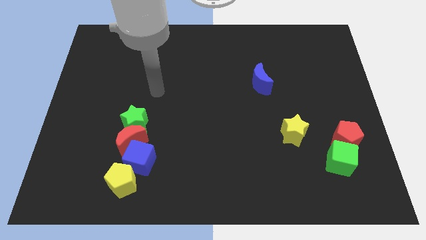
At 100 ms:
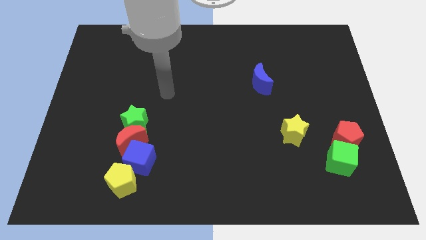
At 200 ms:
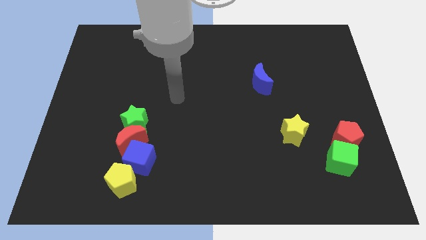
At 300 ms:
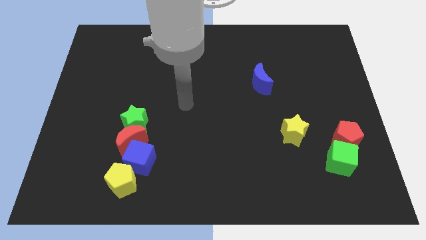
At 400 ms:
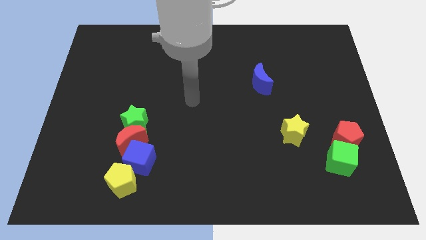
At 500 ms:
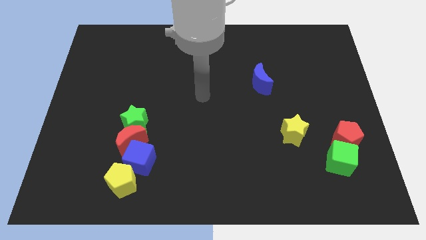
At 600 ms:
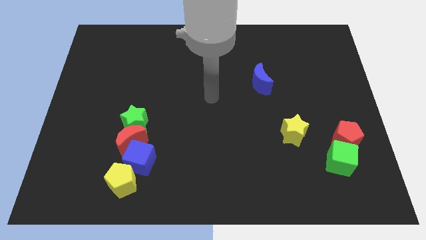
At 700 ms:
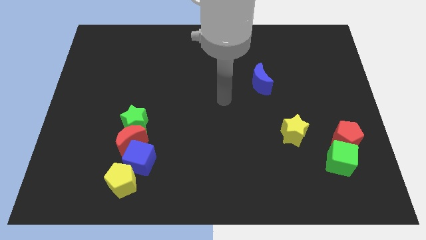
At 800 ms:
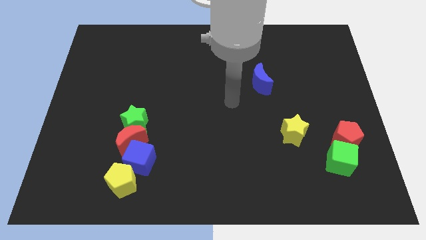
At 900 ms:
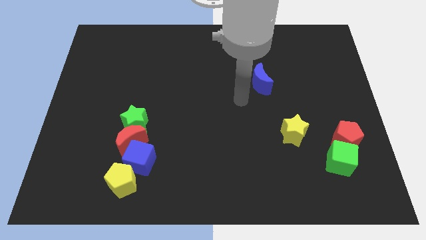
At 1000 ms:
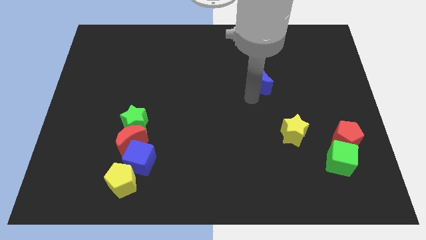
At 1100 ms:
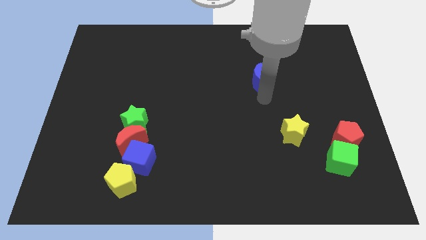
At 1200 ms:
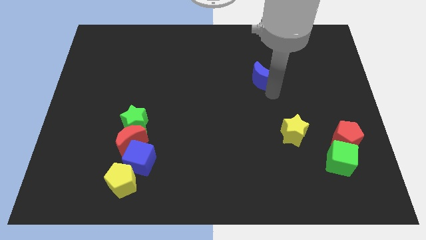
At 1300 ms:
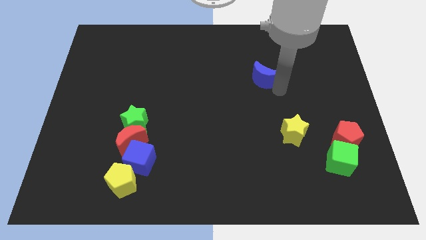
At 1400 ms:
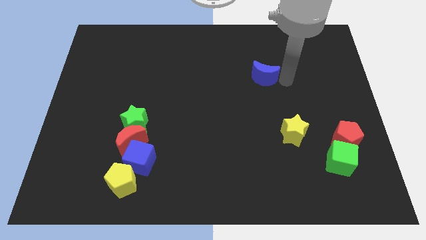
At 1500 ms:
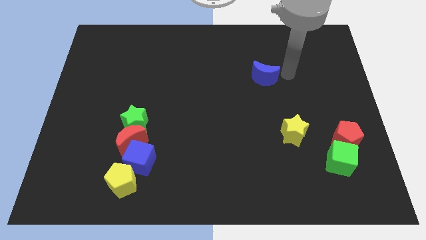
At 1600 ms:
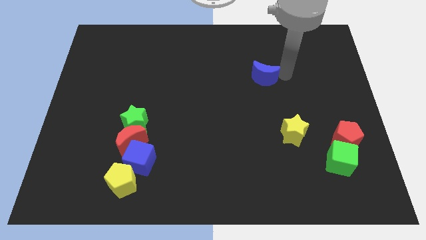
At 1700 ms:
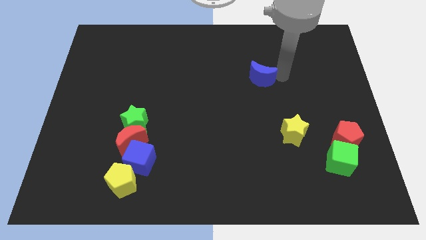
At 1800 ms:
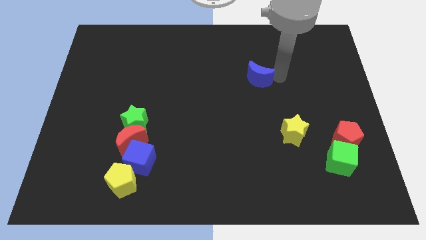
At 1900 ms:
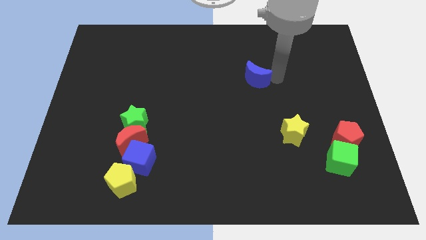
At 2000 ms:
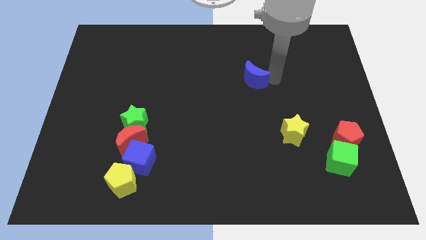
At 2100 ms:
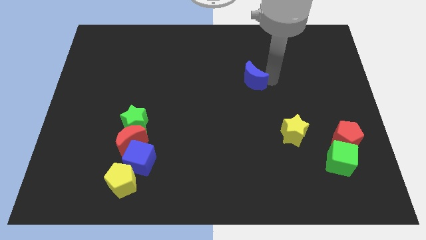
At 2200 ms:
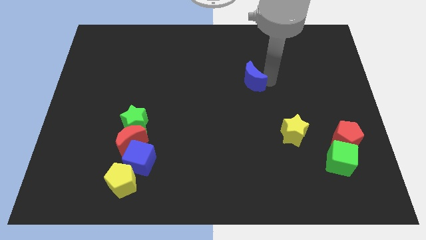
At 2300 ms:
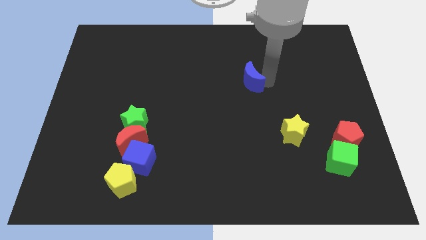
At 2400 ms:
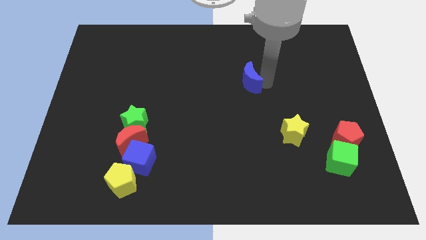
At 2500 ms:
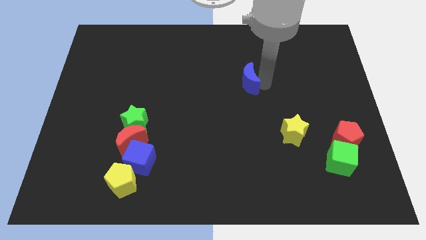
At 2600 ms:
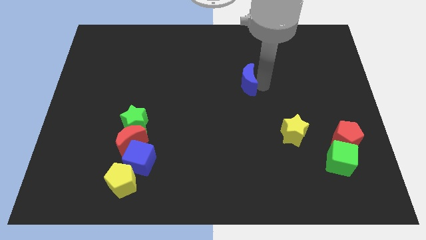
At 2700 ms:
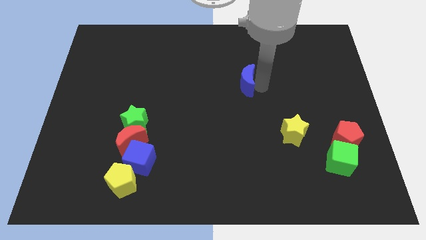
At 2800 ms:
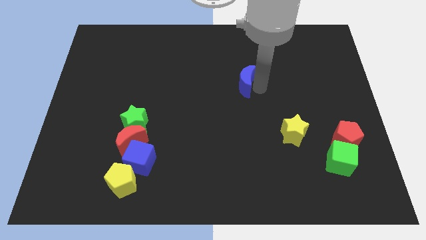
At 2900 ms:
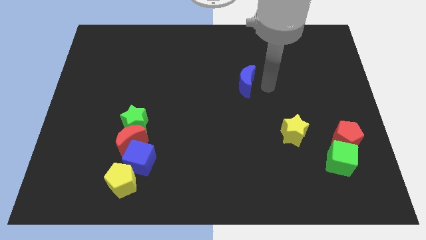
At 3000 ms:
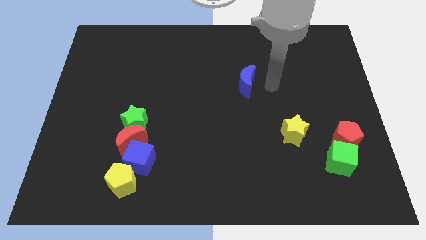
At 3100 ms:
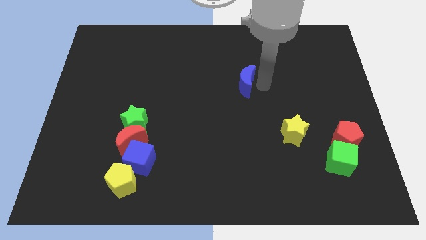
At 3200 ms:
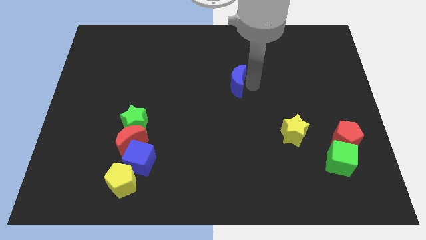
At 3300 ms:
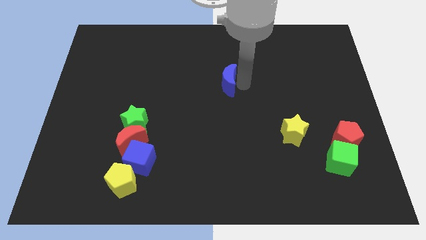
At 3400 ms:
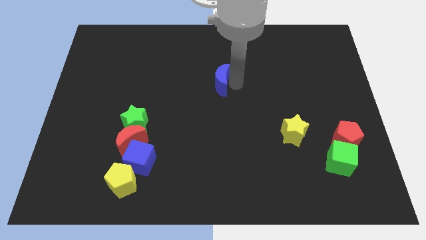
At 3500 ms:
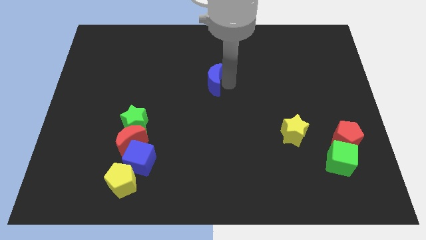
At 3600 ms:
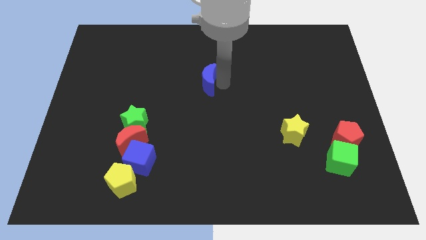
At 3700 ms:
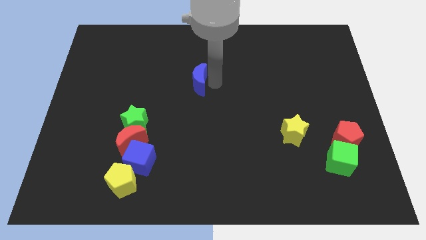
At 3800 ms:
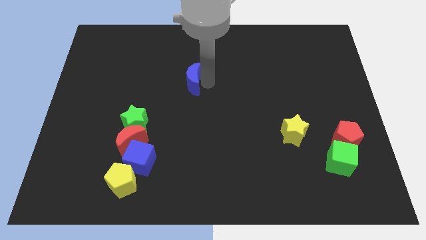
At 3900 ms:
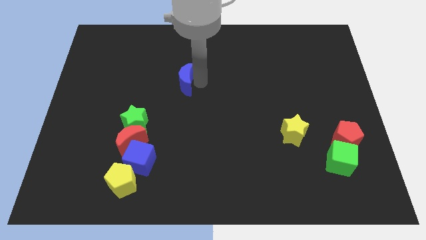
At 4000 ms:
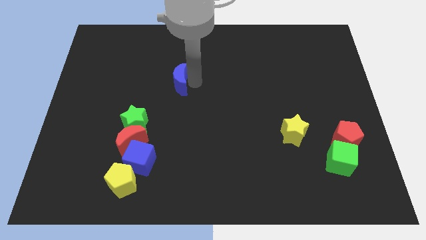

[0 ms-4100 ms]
move the blue moon to the left

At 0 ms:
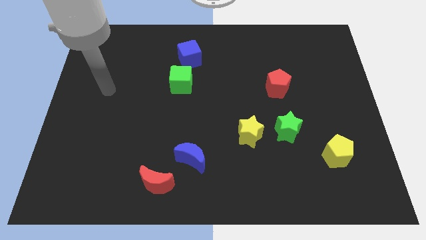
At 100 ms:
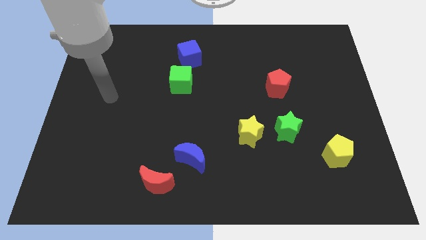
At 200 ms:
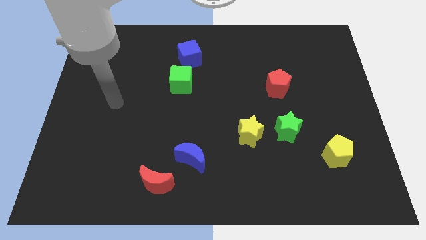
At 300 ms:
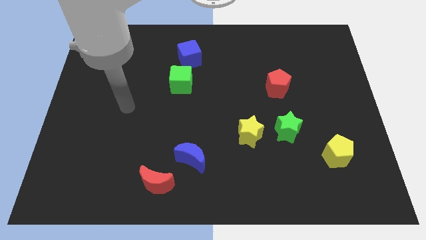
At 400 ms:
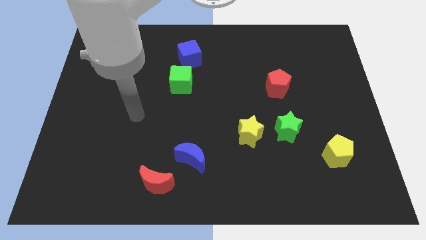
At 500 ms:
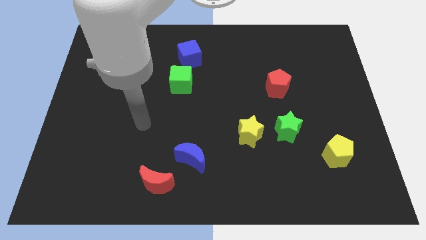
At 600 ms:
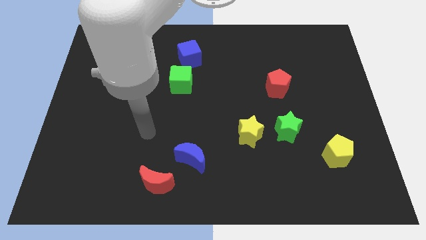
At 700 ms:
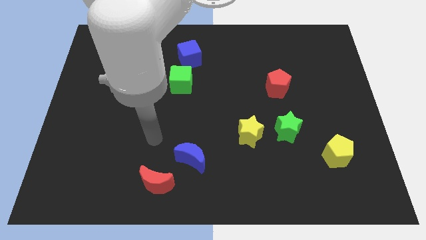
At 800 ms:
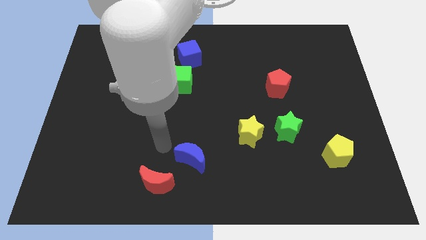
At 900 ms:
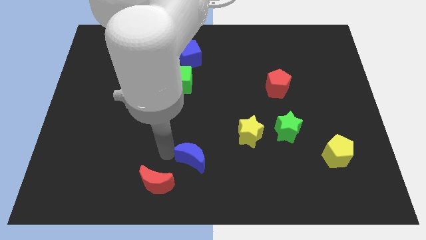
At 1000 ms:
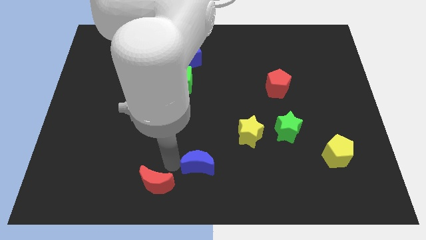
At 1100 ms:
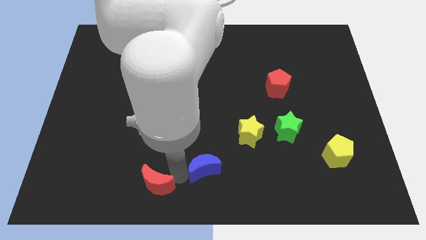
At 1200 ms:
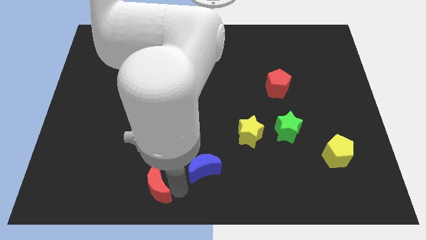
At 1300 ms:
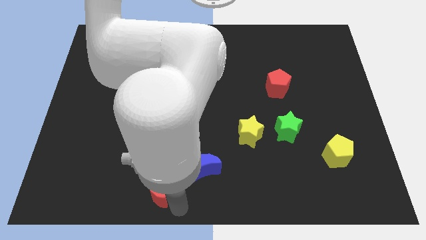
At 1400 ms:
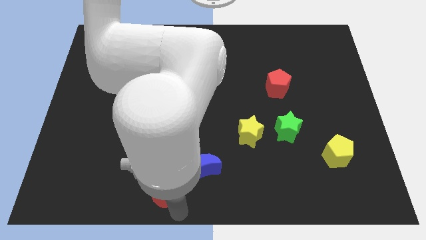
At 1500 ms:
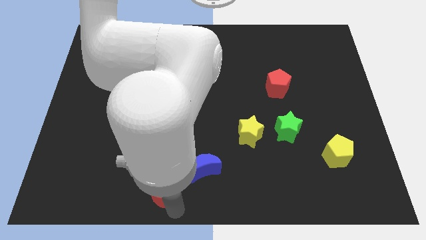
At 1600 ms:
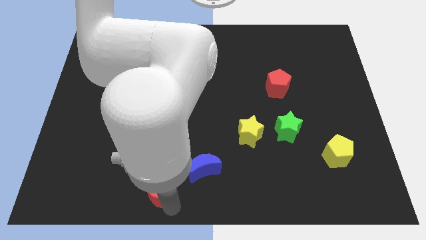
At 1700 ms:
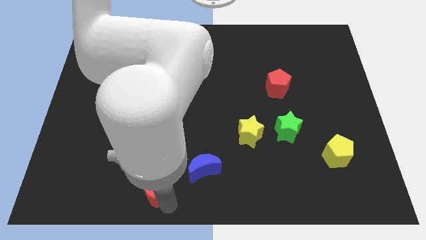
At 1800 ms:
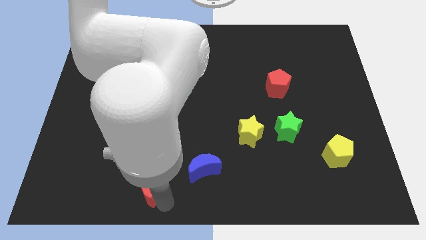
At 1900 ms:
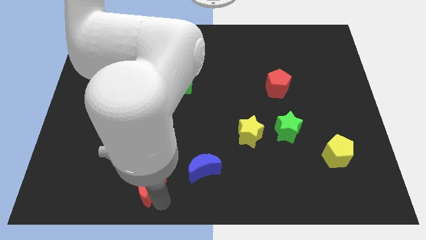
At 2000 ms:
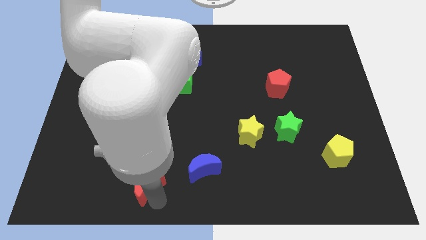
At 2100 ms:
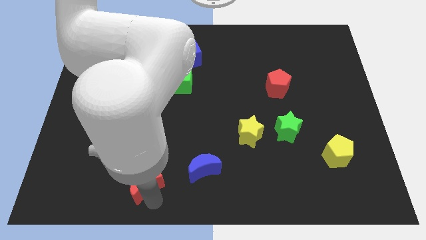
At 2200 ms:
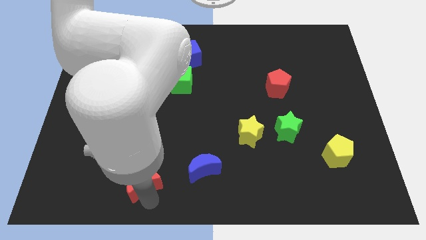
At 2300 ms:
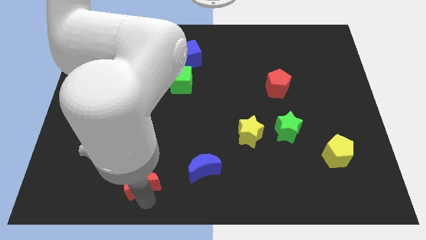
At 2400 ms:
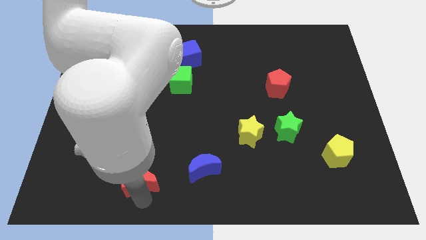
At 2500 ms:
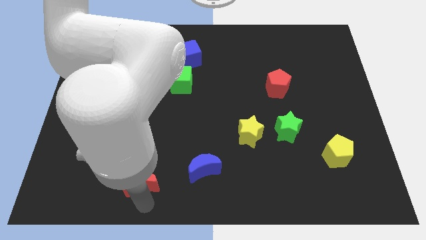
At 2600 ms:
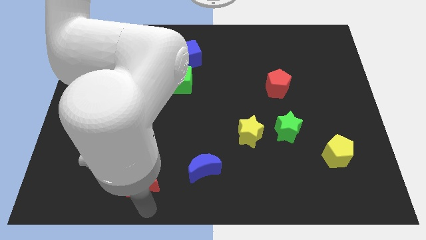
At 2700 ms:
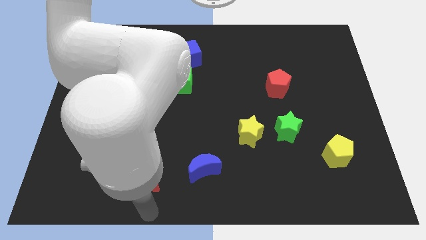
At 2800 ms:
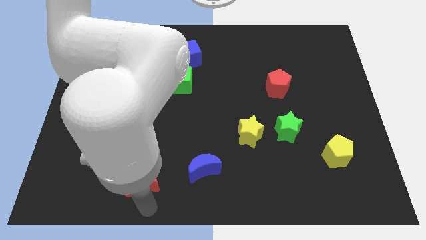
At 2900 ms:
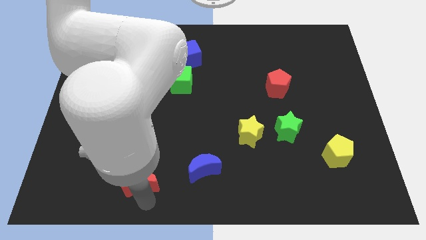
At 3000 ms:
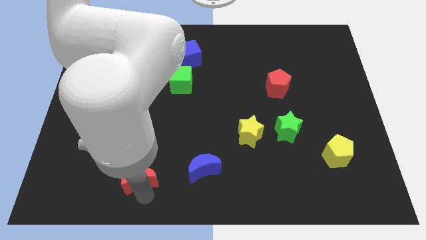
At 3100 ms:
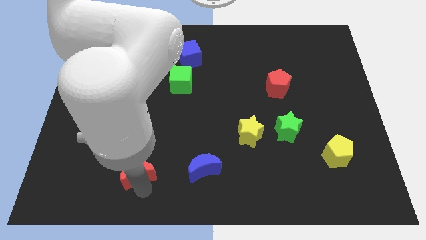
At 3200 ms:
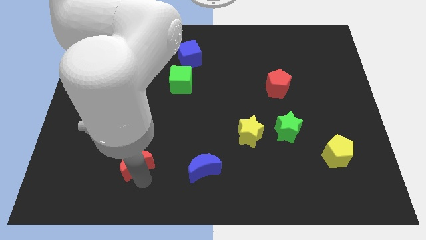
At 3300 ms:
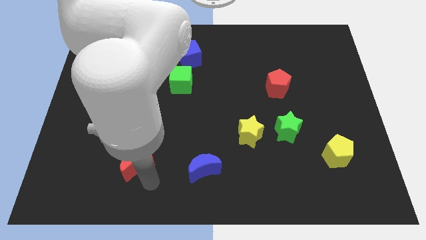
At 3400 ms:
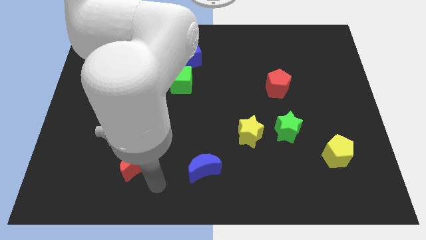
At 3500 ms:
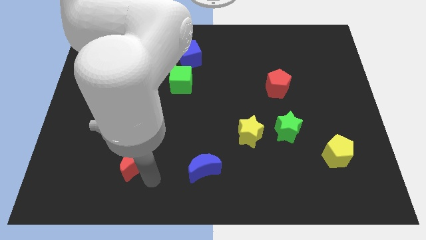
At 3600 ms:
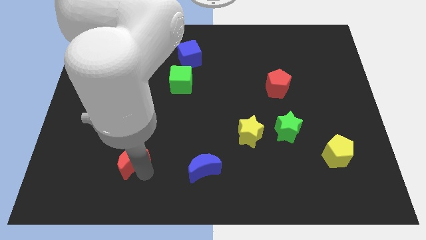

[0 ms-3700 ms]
slightly slide the red moon up and left diagonally
